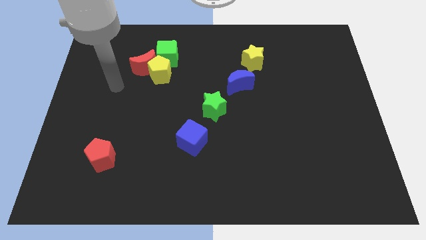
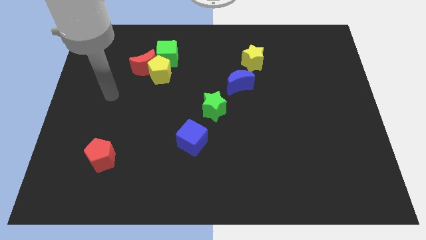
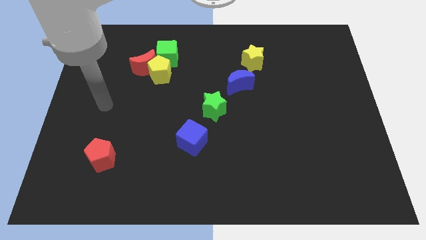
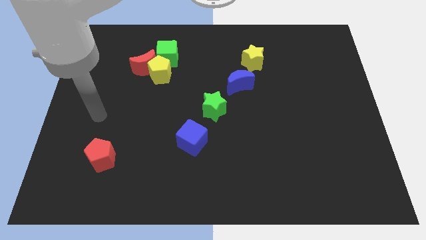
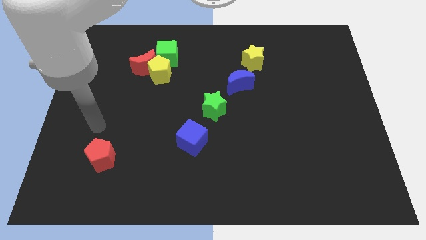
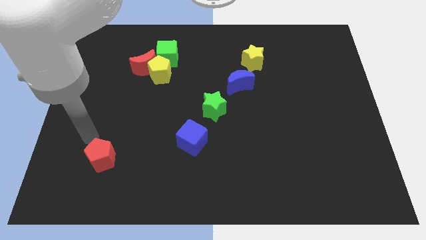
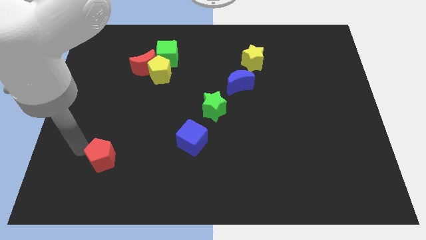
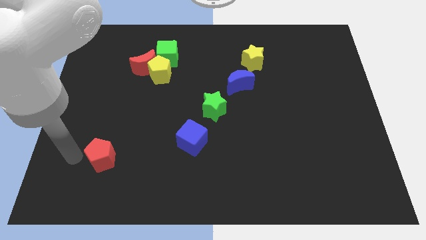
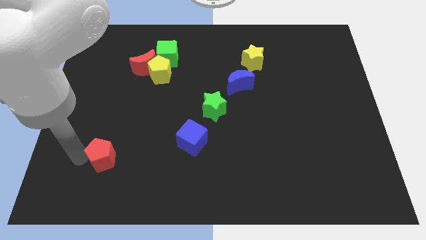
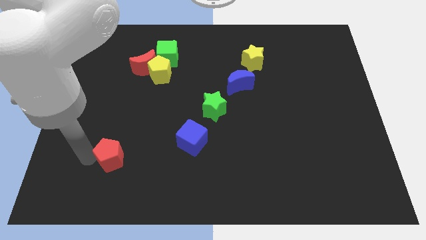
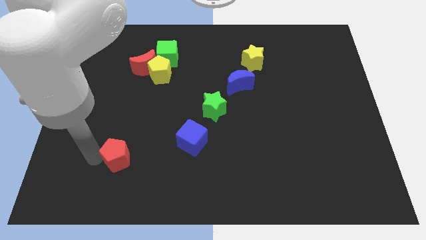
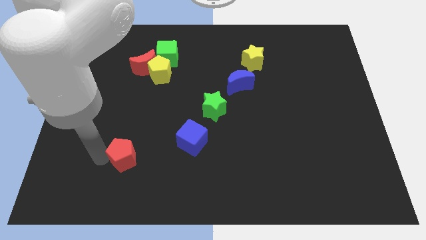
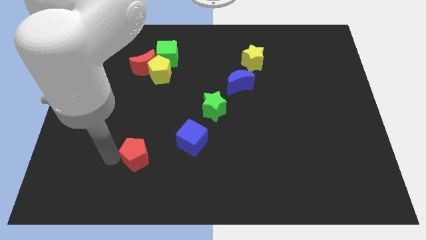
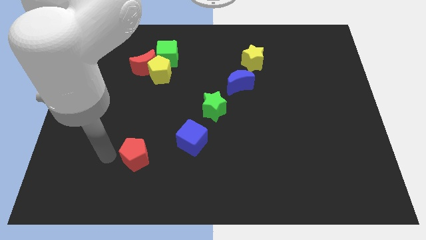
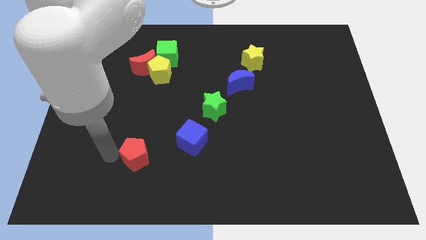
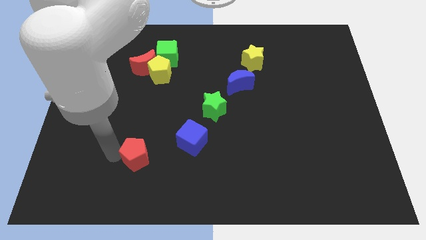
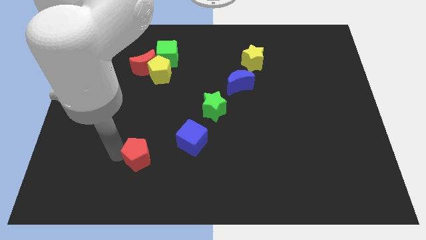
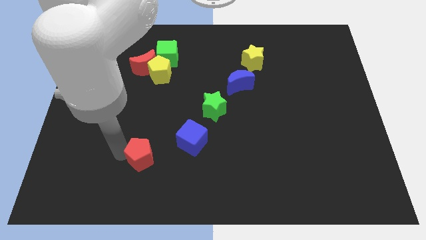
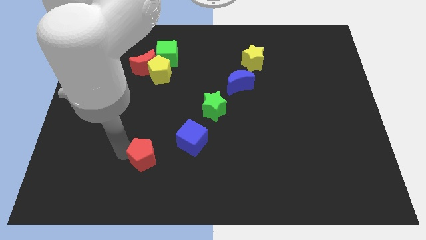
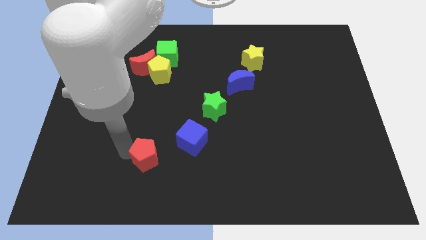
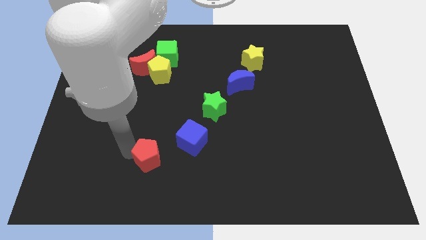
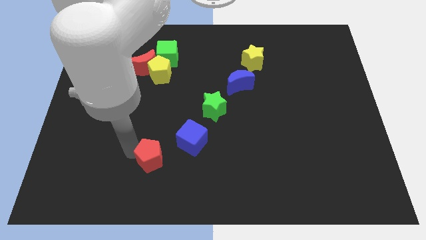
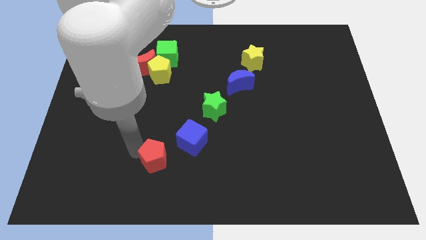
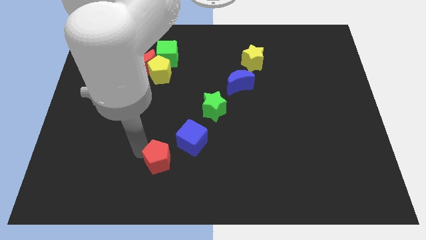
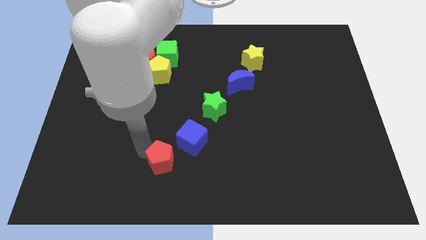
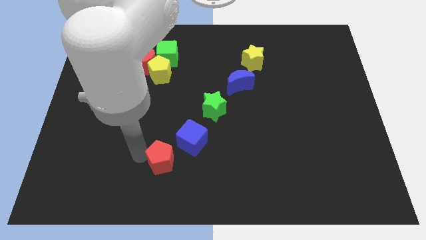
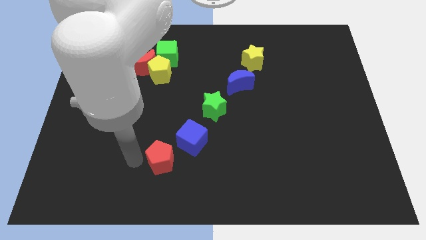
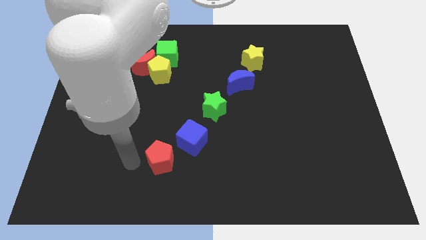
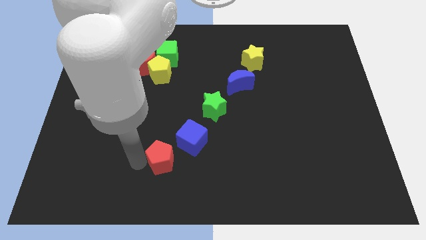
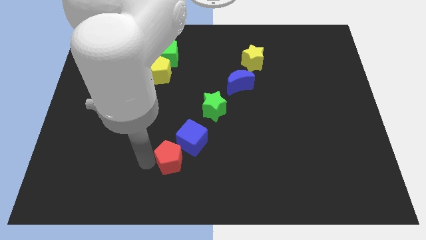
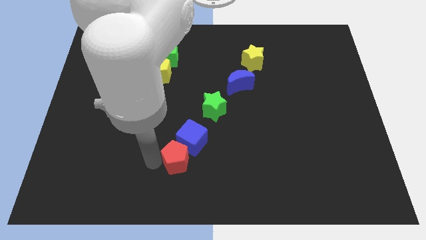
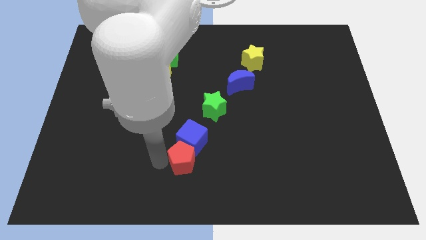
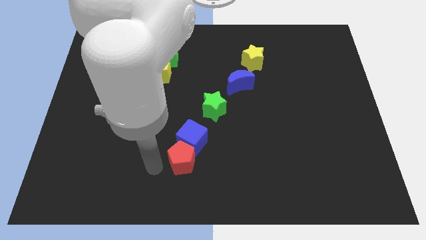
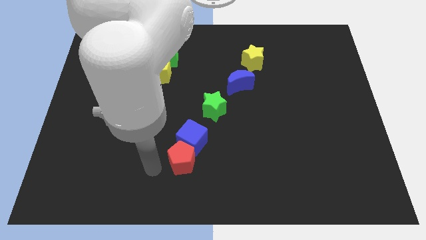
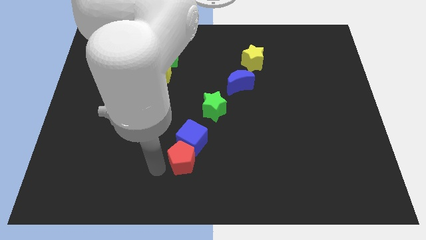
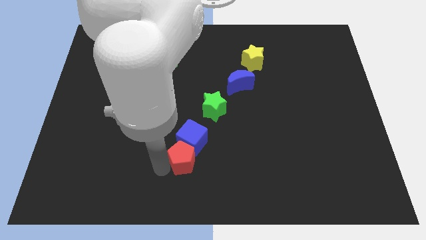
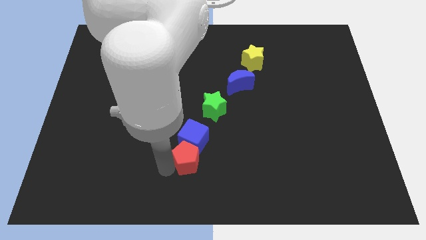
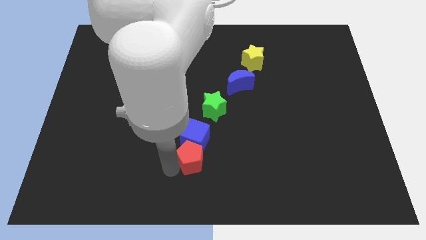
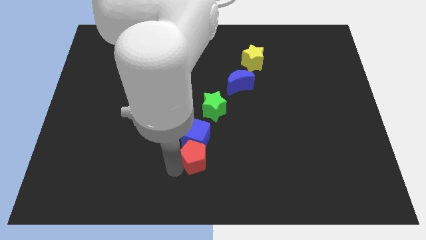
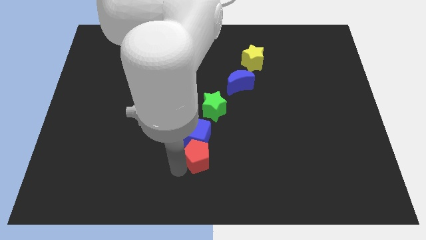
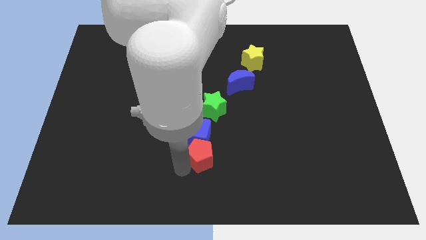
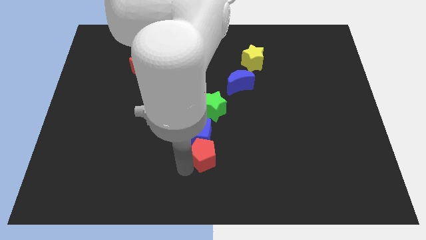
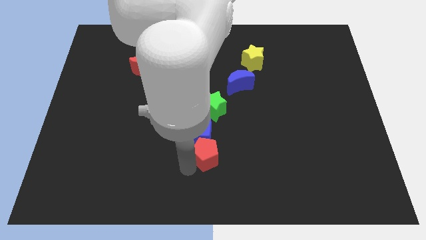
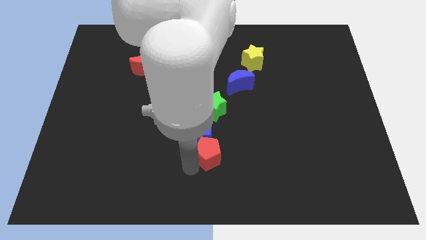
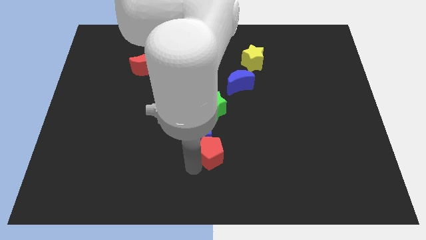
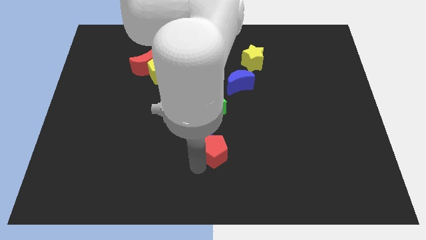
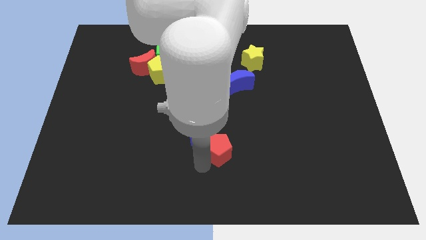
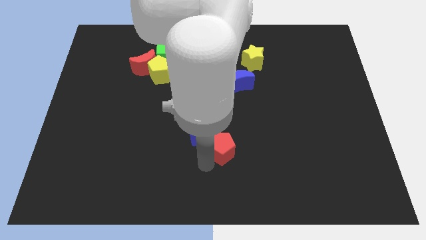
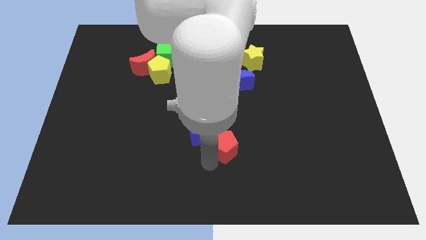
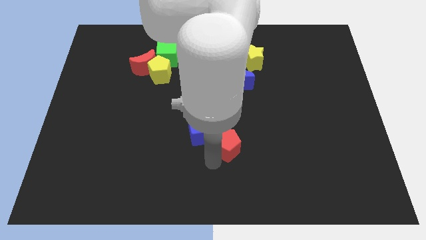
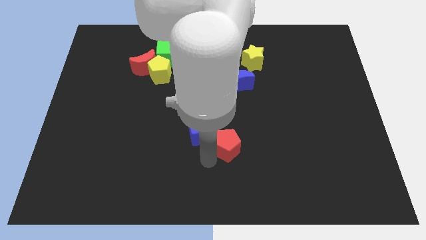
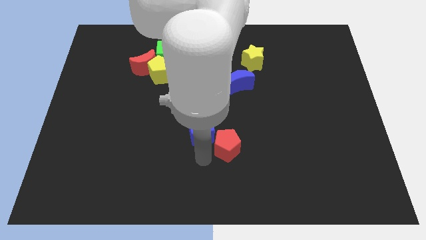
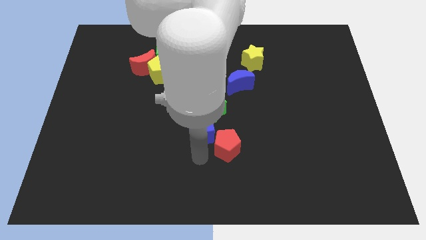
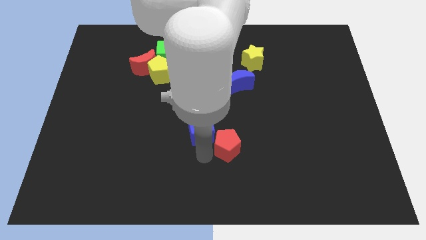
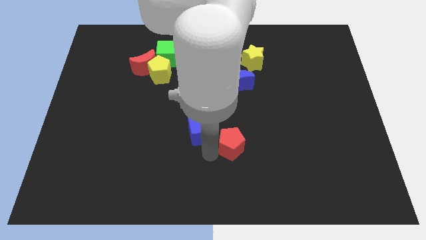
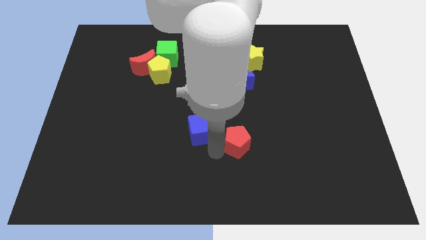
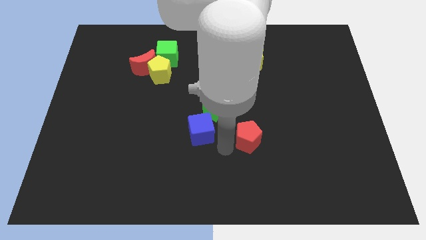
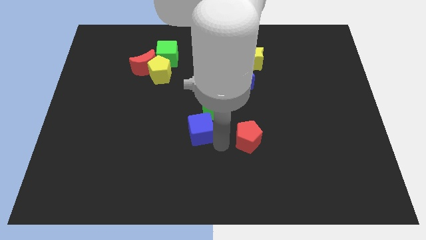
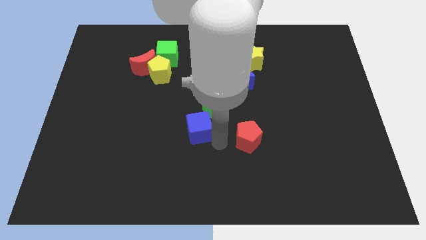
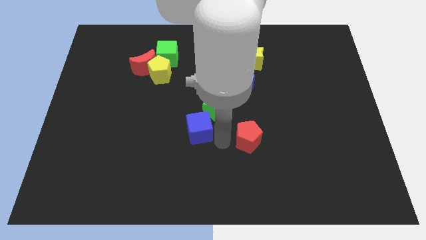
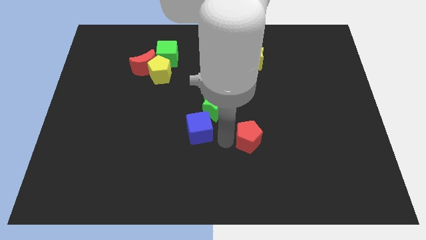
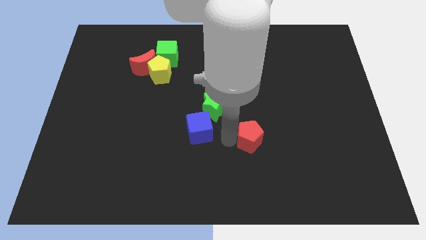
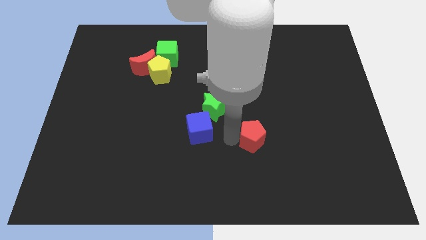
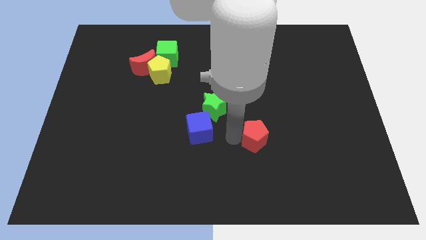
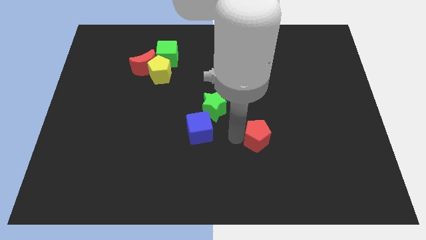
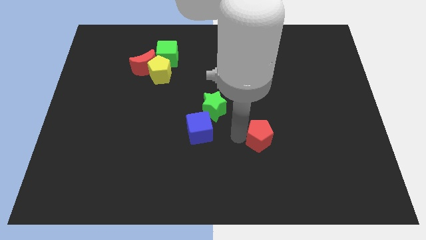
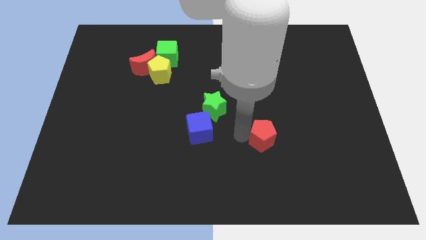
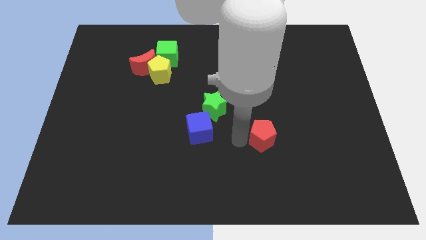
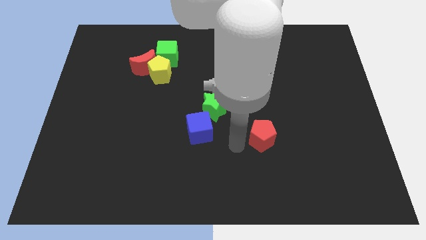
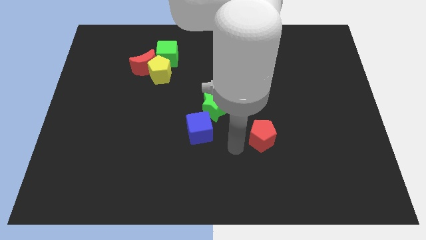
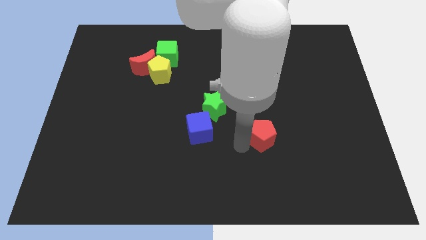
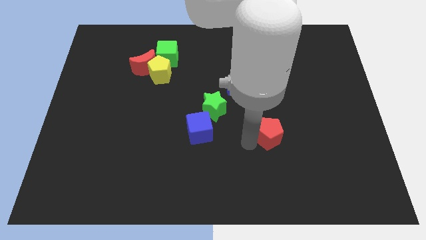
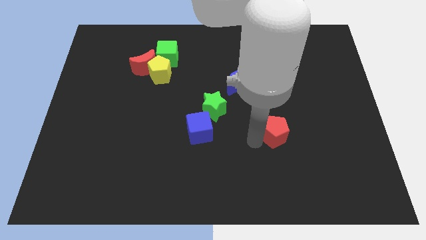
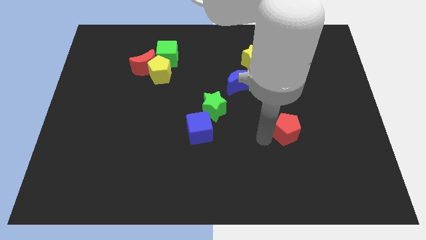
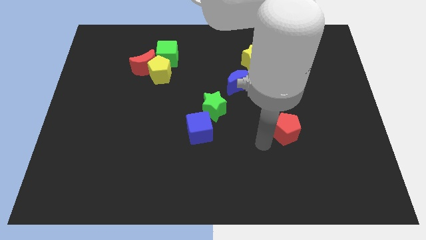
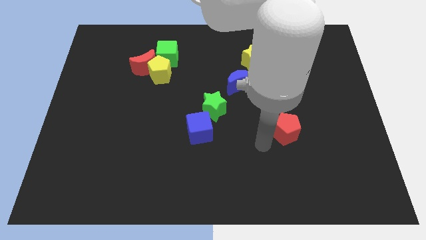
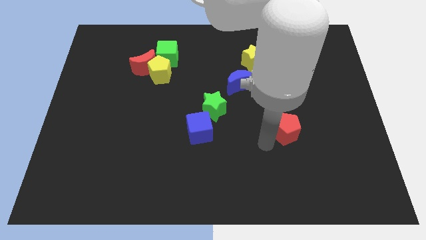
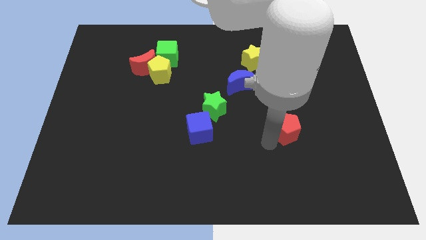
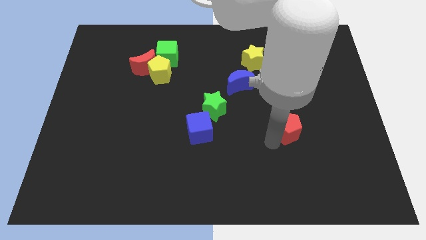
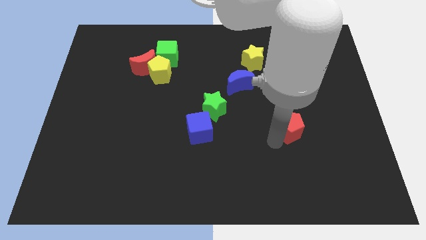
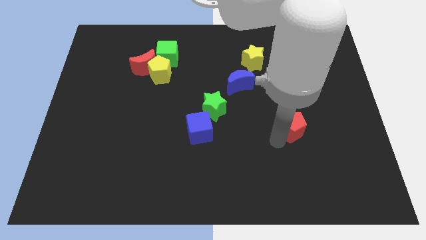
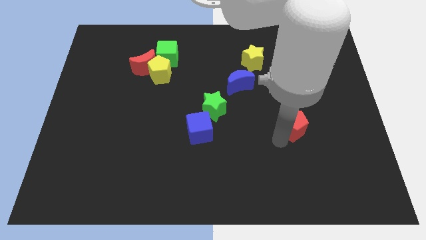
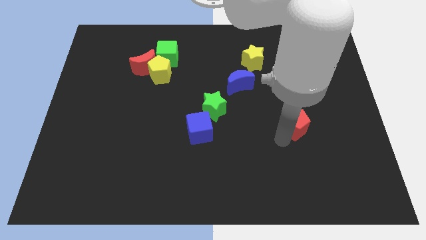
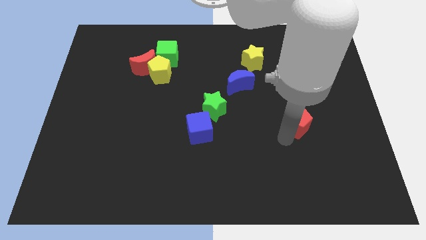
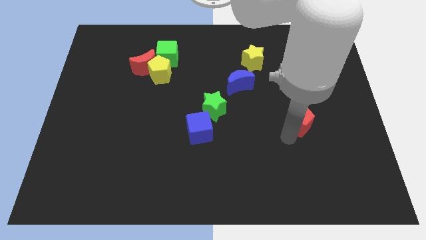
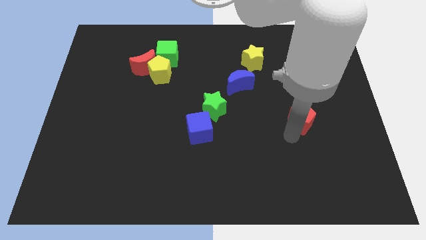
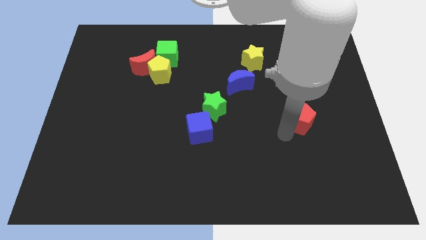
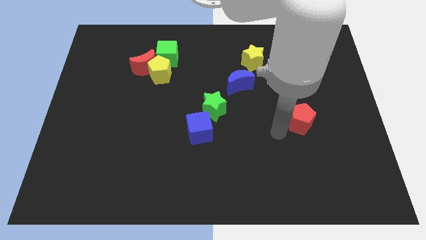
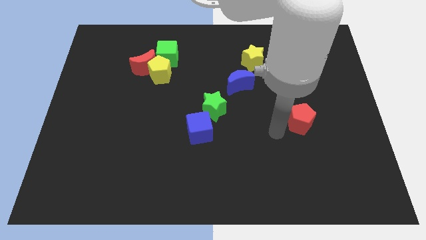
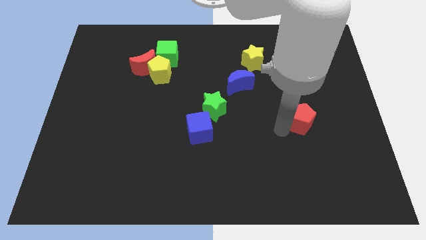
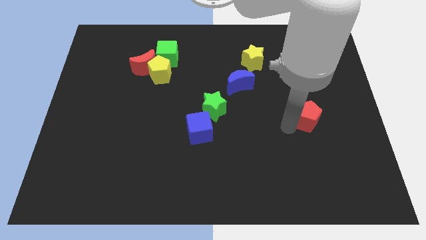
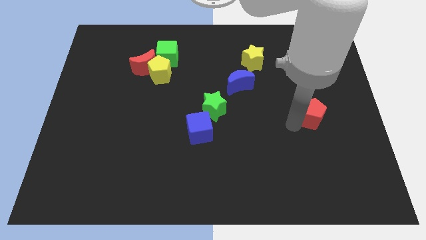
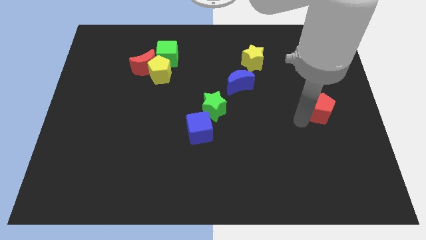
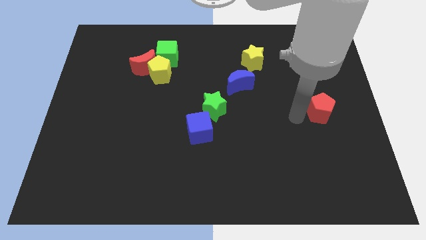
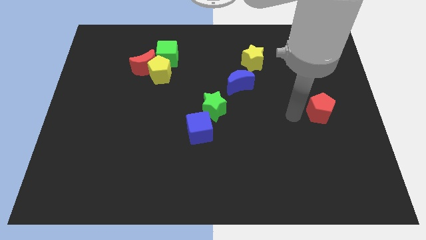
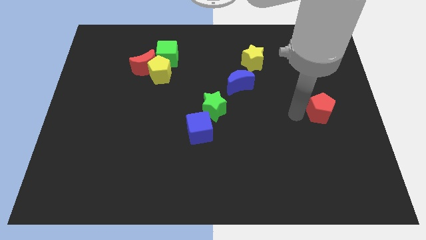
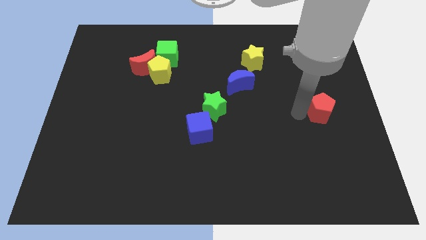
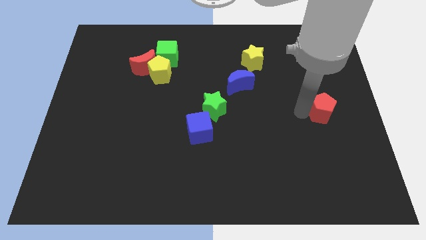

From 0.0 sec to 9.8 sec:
push the red pentagon to the center right
